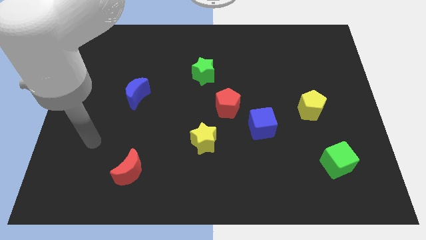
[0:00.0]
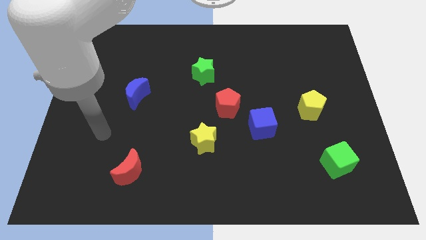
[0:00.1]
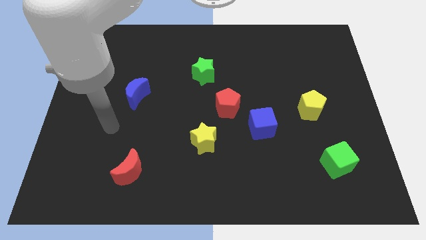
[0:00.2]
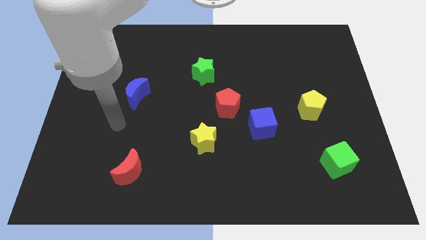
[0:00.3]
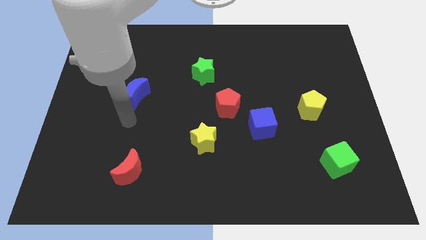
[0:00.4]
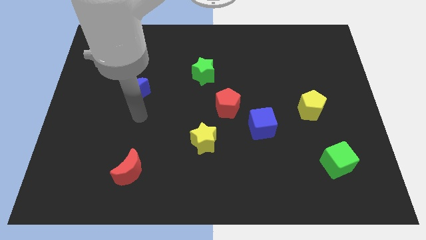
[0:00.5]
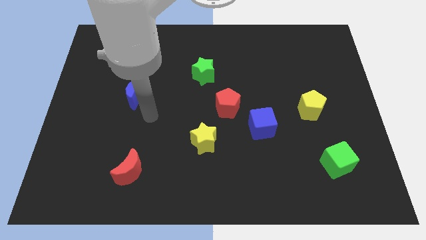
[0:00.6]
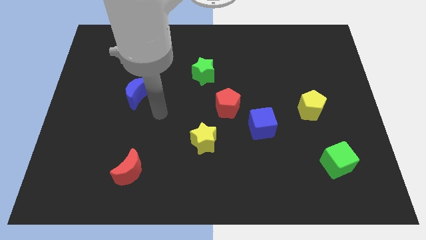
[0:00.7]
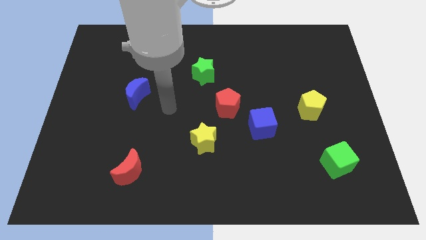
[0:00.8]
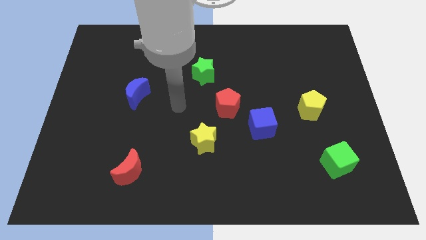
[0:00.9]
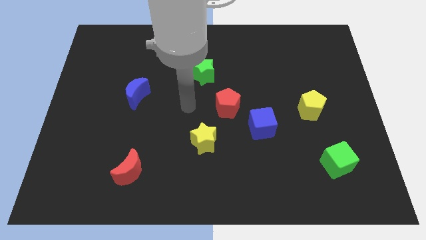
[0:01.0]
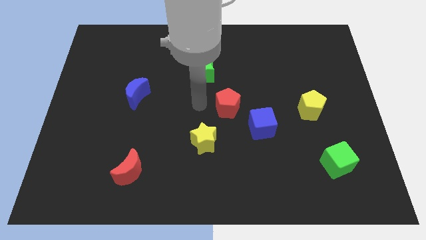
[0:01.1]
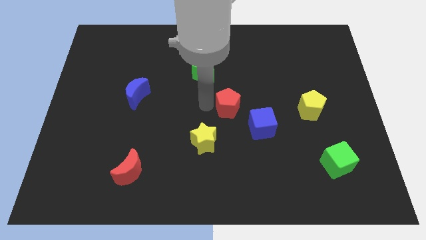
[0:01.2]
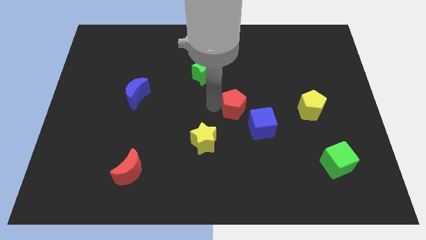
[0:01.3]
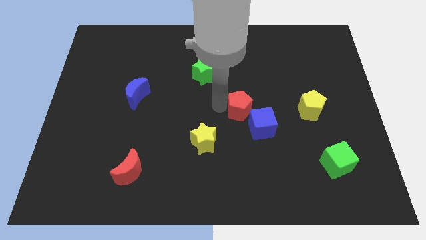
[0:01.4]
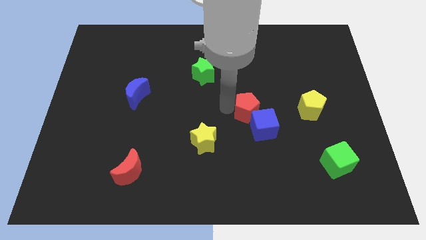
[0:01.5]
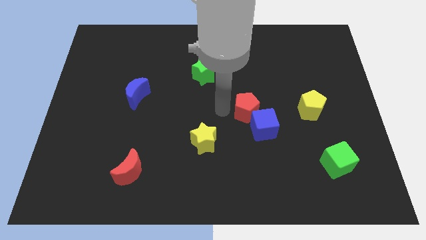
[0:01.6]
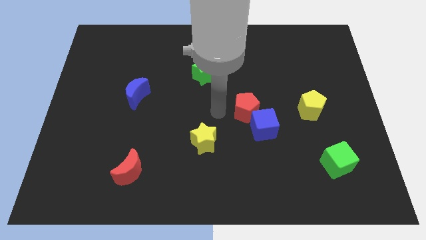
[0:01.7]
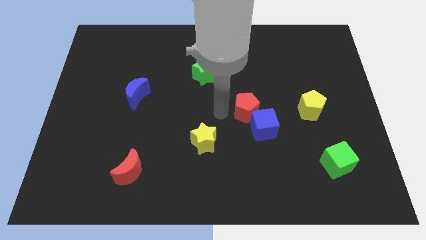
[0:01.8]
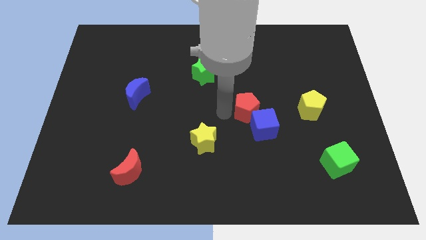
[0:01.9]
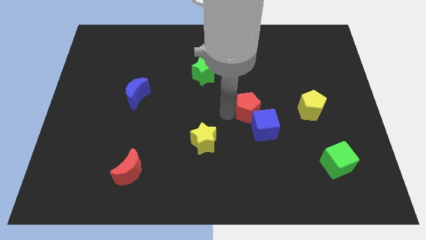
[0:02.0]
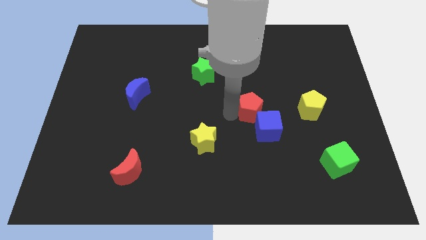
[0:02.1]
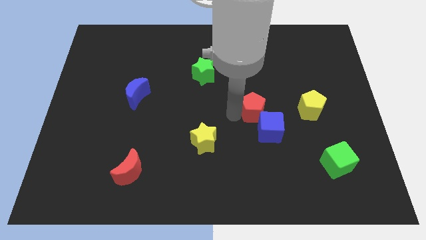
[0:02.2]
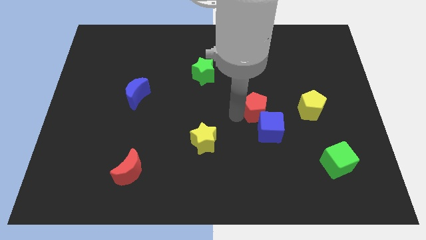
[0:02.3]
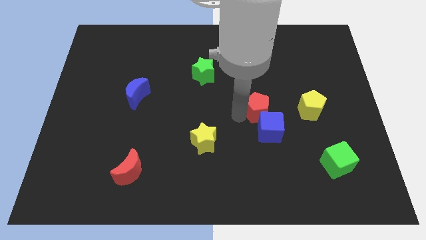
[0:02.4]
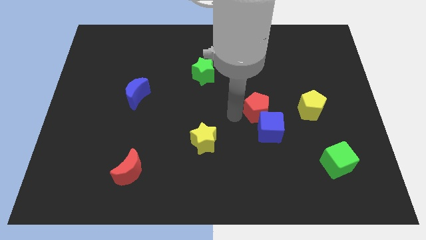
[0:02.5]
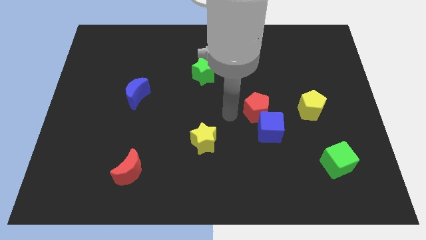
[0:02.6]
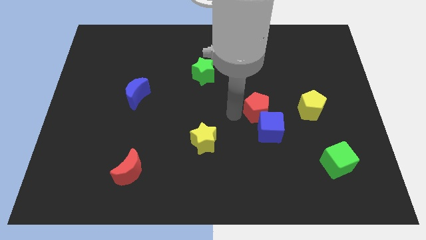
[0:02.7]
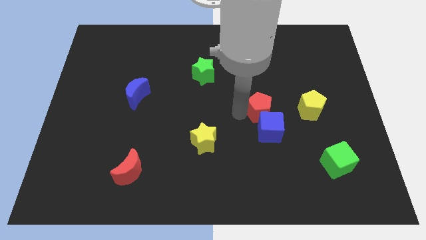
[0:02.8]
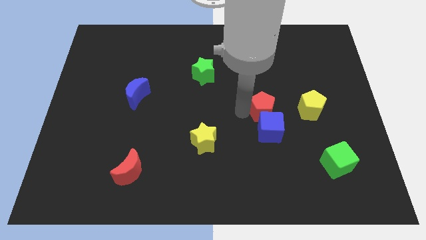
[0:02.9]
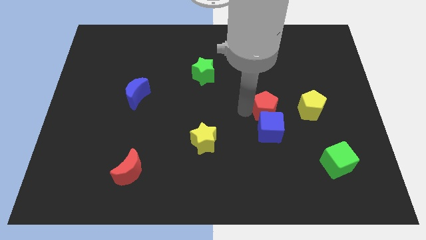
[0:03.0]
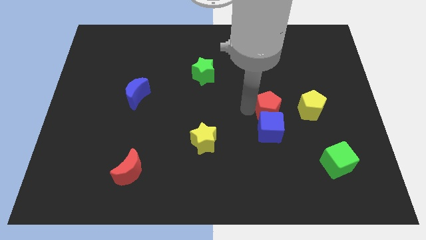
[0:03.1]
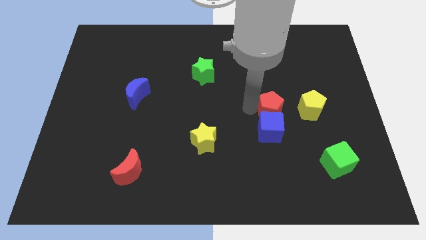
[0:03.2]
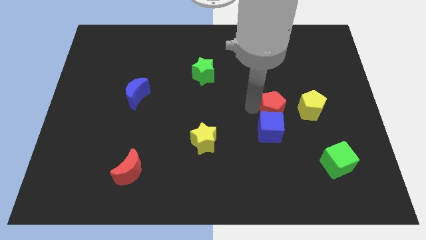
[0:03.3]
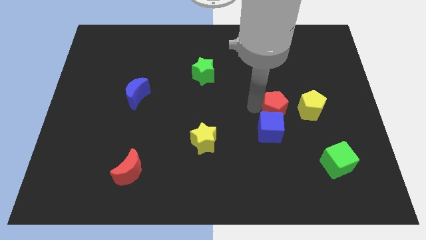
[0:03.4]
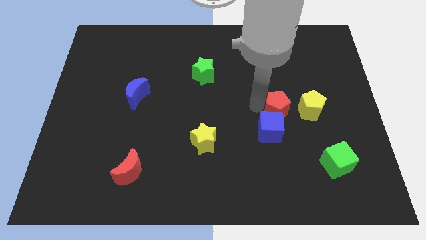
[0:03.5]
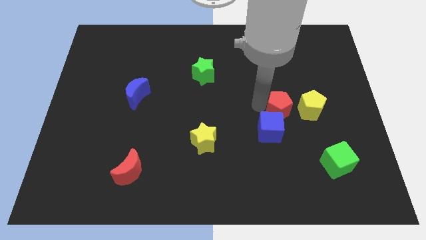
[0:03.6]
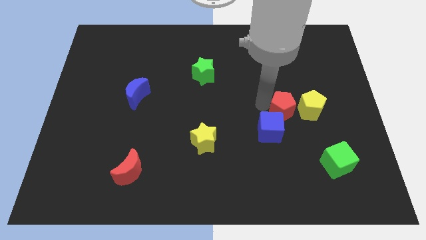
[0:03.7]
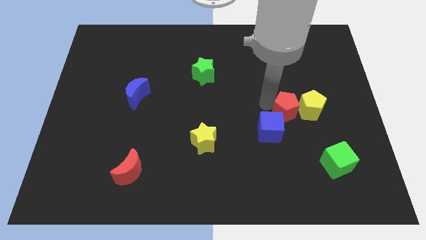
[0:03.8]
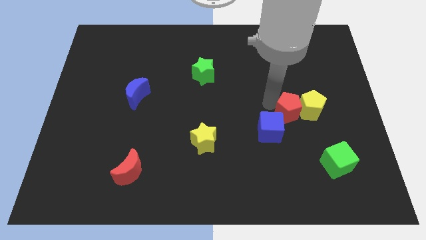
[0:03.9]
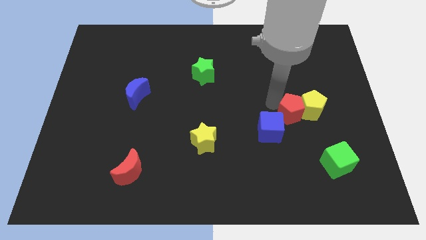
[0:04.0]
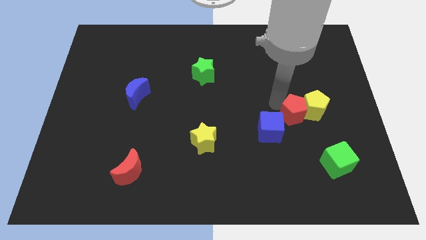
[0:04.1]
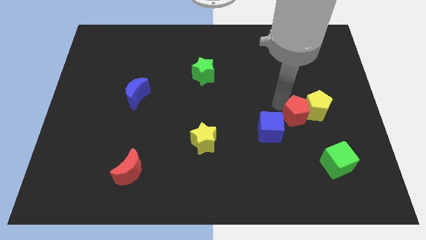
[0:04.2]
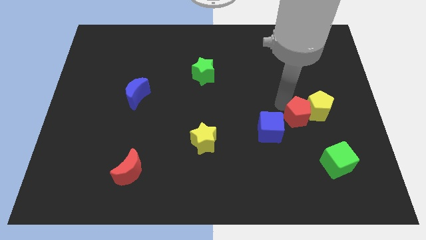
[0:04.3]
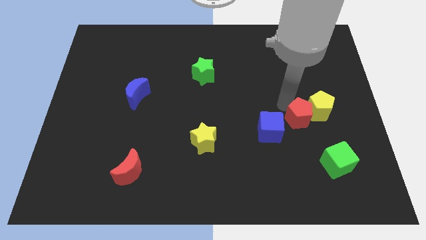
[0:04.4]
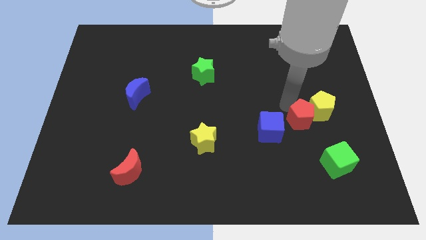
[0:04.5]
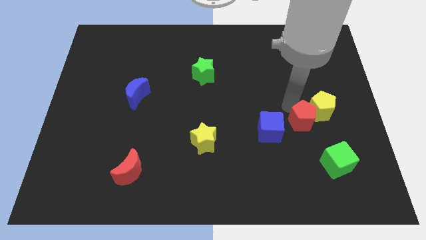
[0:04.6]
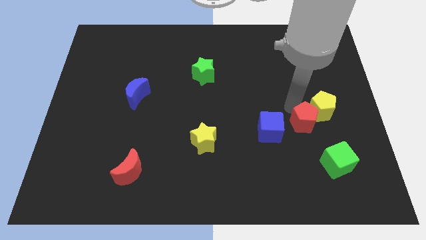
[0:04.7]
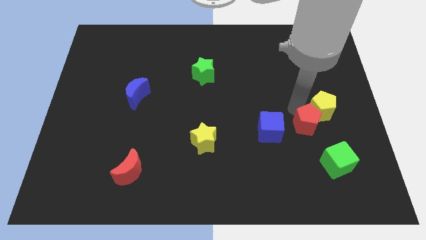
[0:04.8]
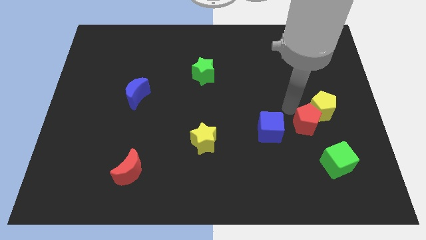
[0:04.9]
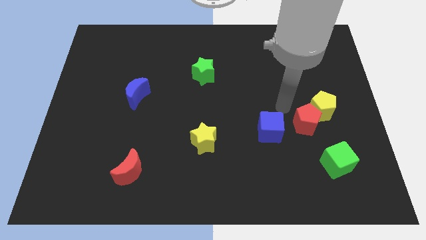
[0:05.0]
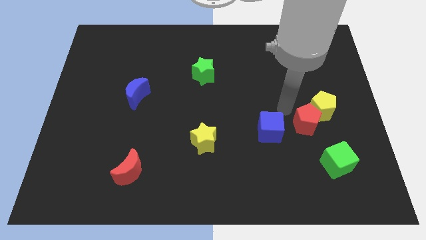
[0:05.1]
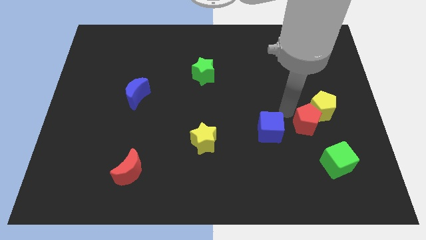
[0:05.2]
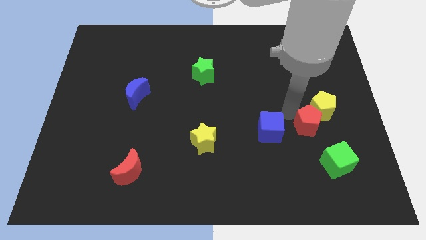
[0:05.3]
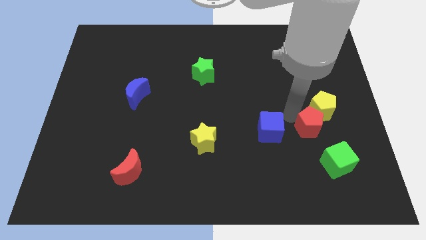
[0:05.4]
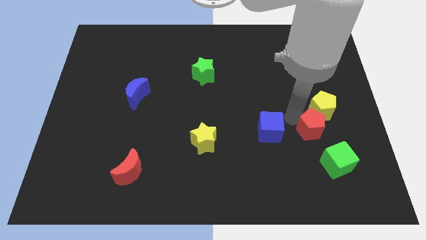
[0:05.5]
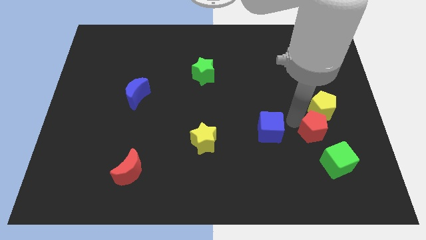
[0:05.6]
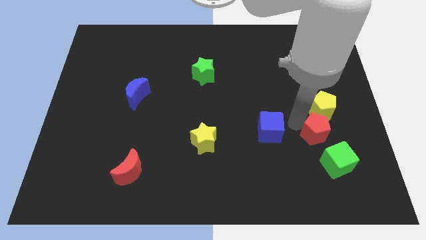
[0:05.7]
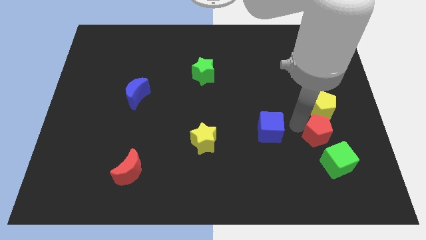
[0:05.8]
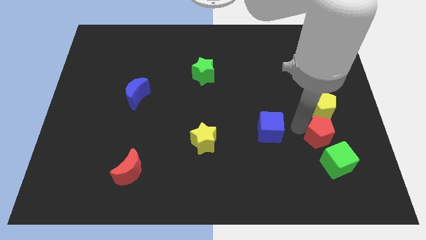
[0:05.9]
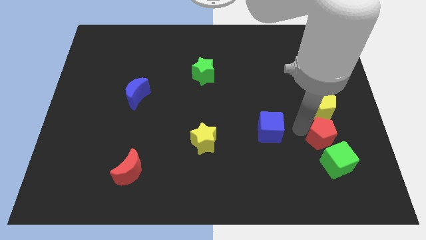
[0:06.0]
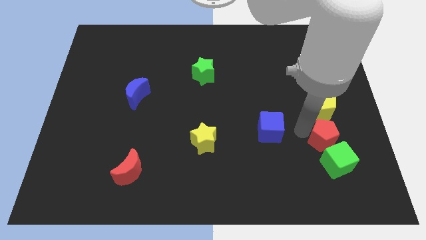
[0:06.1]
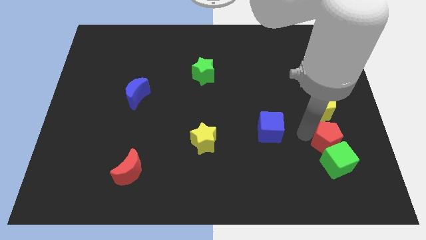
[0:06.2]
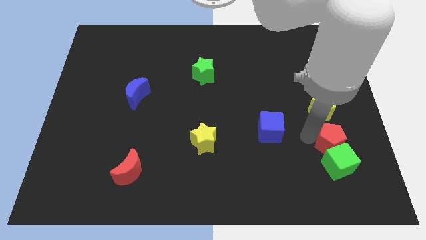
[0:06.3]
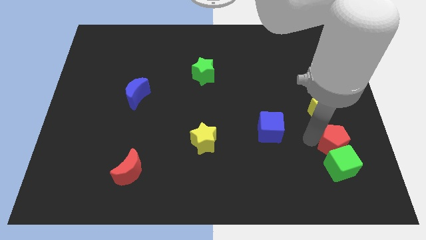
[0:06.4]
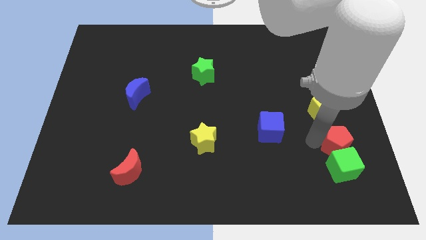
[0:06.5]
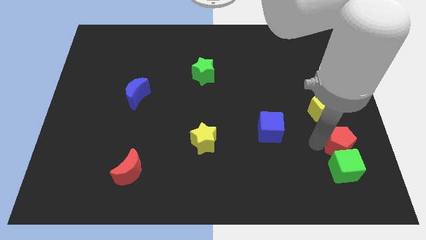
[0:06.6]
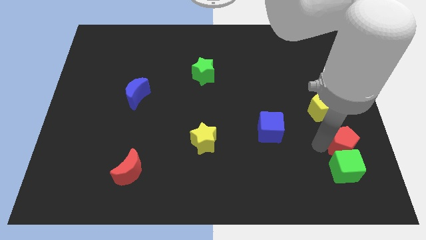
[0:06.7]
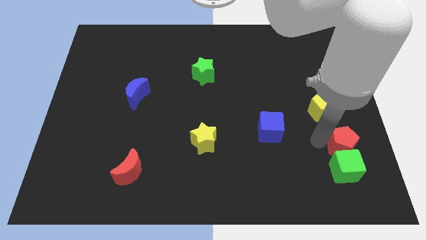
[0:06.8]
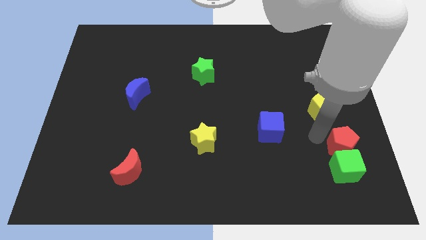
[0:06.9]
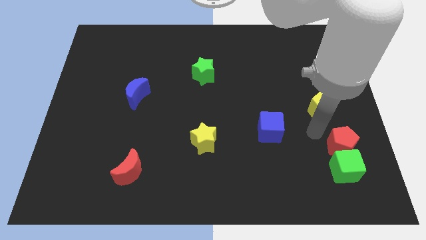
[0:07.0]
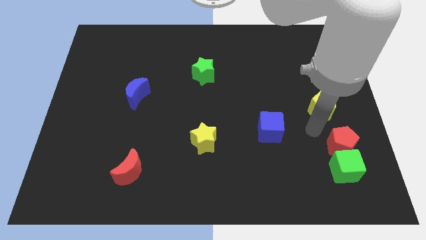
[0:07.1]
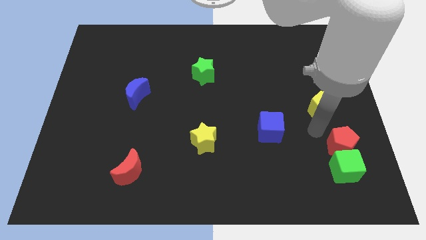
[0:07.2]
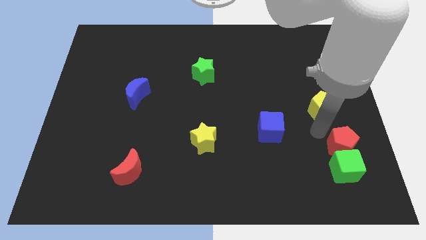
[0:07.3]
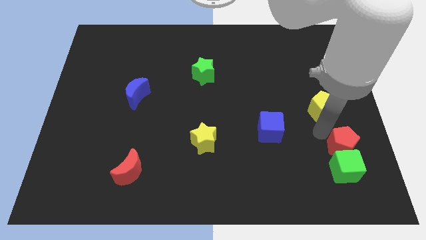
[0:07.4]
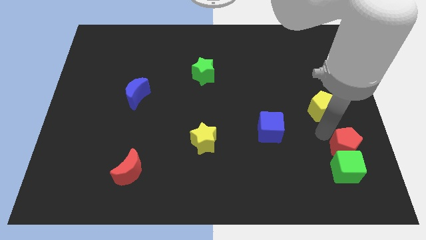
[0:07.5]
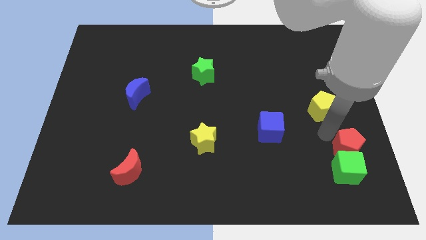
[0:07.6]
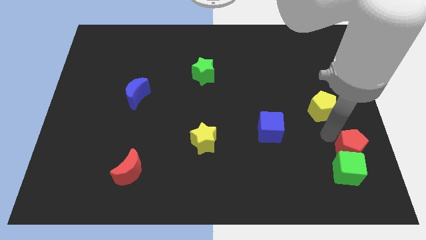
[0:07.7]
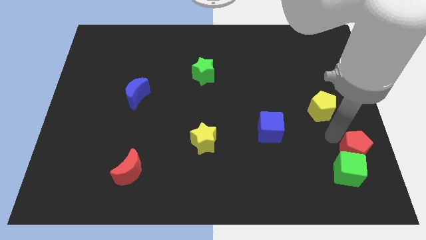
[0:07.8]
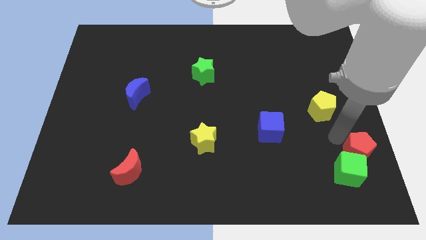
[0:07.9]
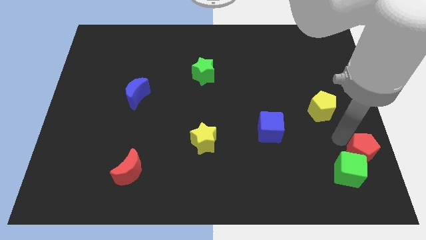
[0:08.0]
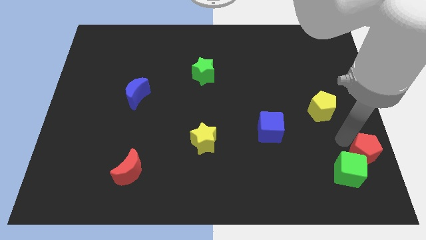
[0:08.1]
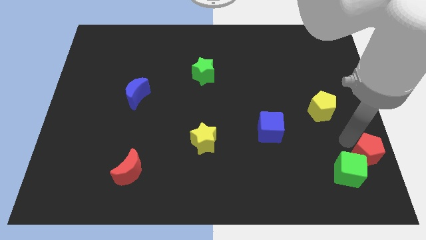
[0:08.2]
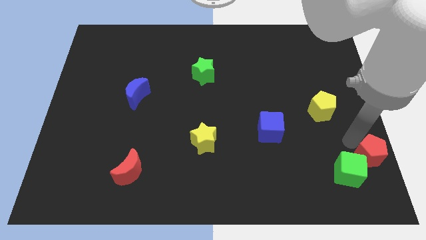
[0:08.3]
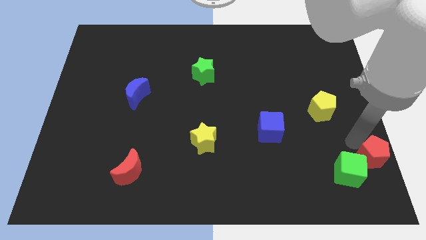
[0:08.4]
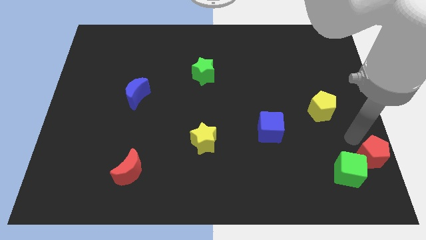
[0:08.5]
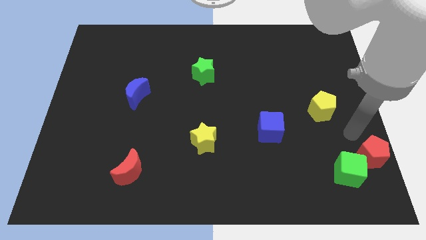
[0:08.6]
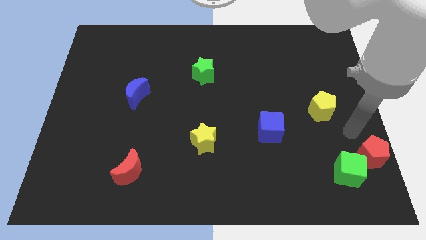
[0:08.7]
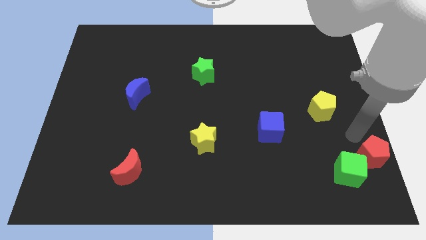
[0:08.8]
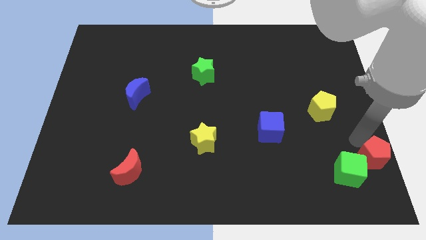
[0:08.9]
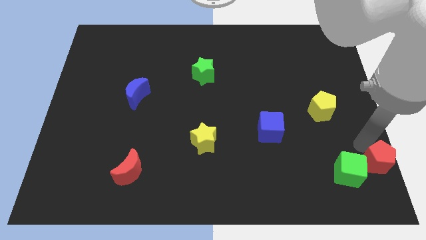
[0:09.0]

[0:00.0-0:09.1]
put the red pentagon to the bottom right of the board
